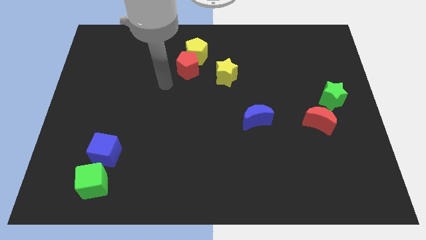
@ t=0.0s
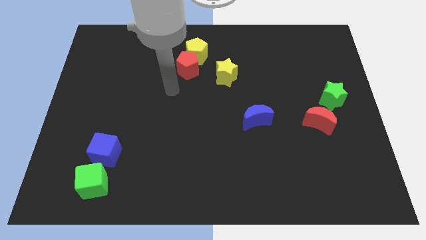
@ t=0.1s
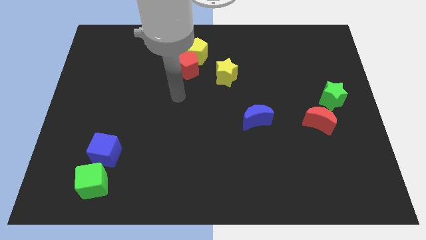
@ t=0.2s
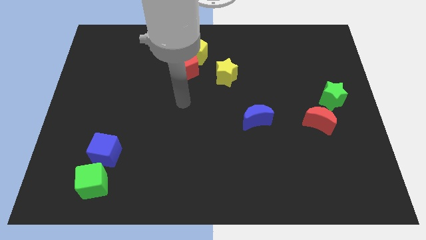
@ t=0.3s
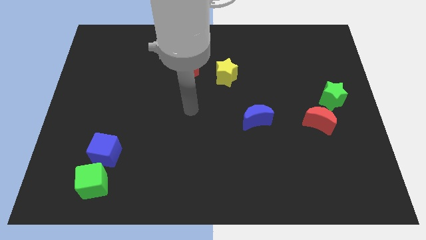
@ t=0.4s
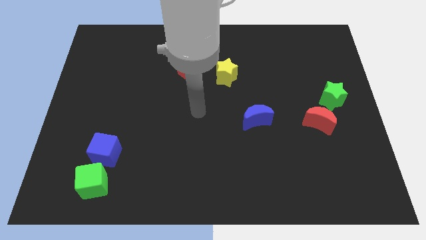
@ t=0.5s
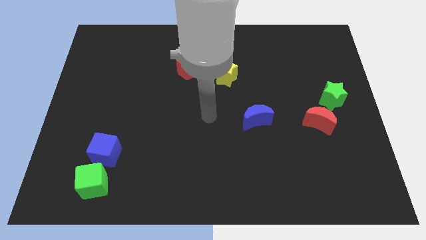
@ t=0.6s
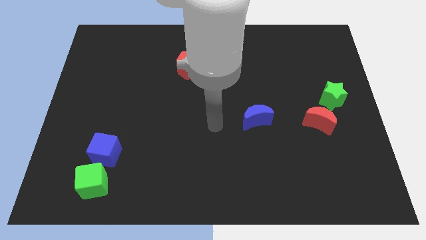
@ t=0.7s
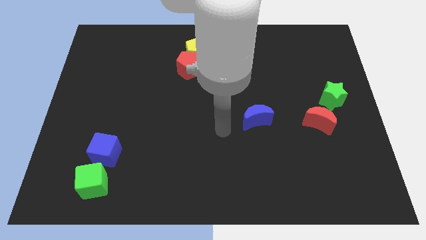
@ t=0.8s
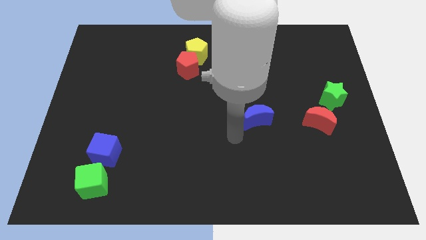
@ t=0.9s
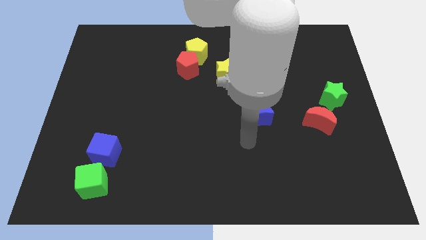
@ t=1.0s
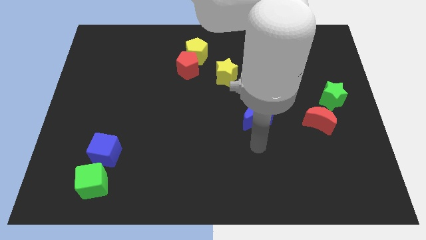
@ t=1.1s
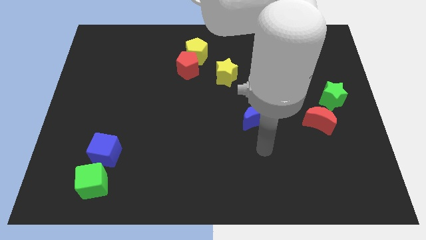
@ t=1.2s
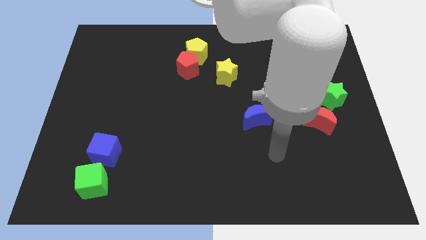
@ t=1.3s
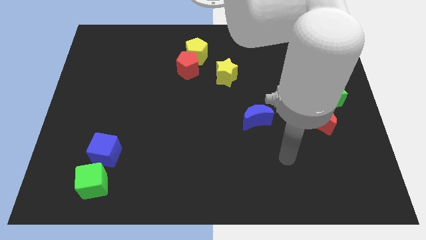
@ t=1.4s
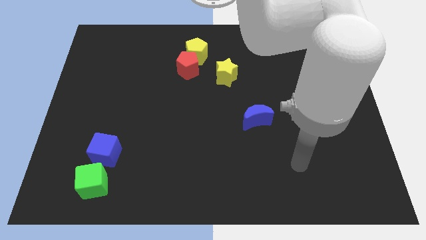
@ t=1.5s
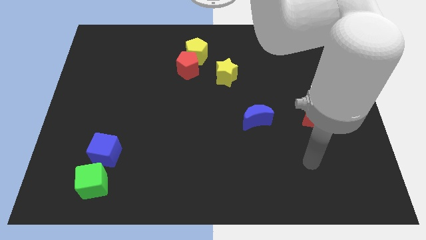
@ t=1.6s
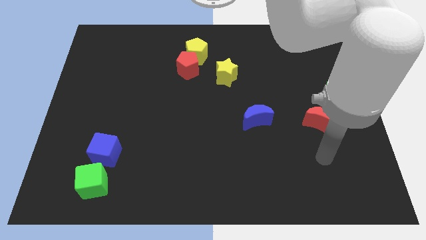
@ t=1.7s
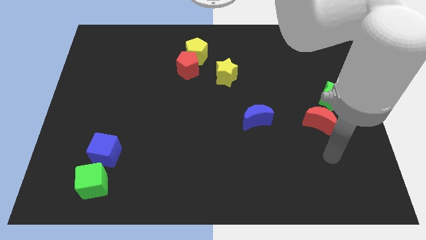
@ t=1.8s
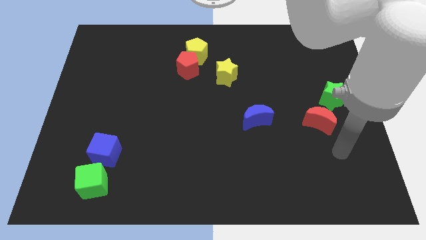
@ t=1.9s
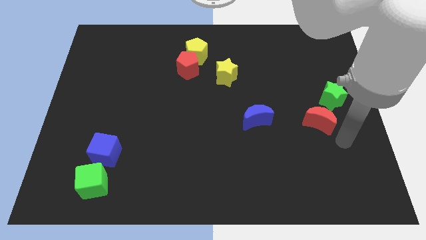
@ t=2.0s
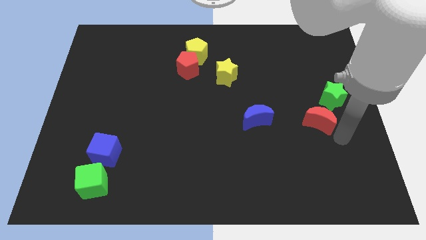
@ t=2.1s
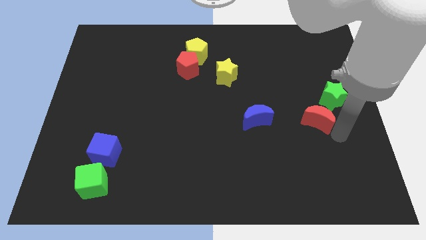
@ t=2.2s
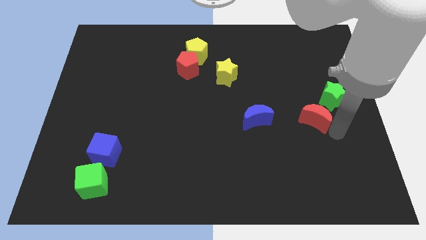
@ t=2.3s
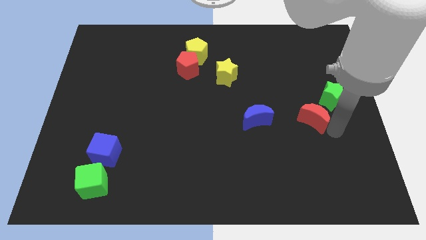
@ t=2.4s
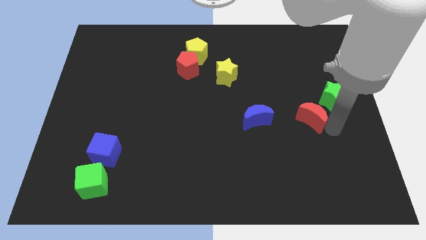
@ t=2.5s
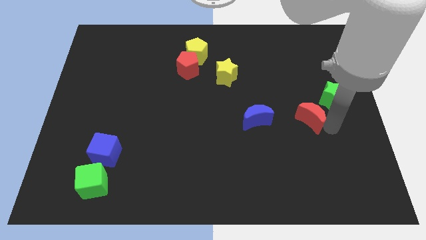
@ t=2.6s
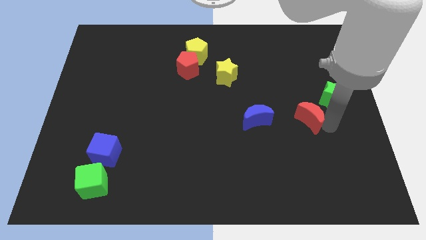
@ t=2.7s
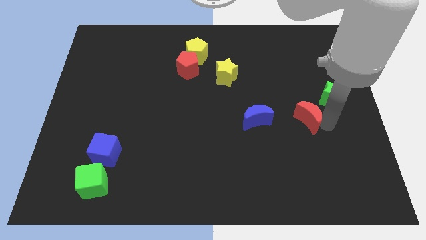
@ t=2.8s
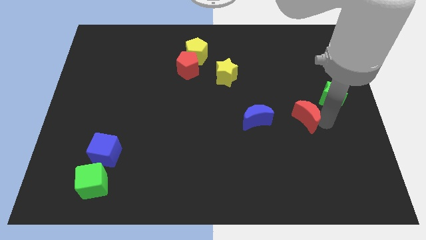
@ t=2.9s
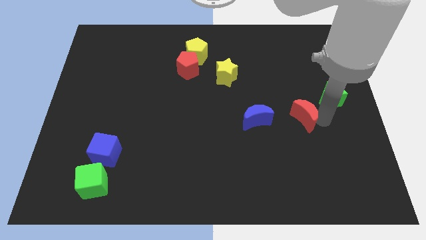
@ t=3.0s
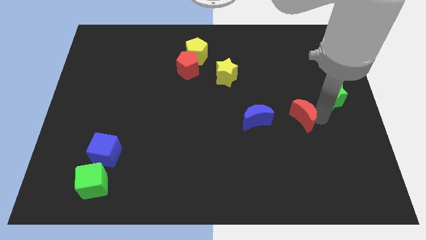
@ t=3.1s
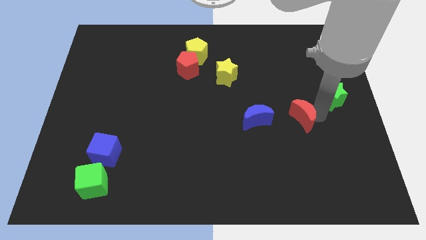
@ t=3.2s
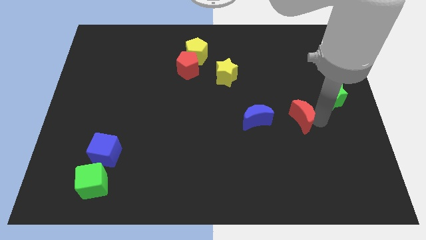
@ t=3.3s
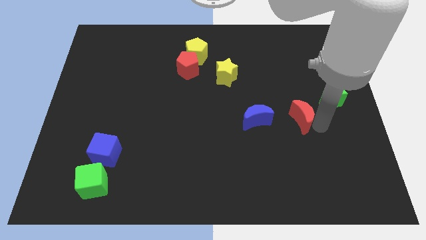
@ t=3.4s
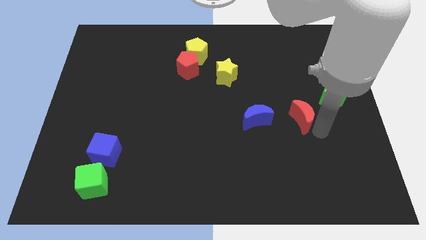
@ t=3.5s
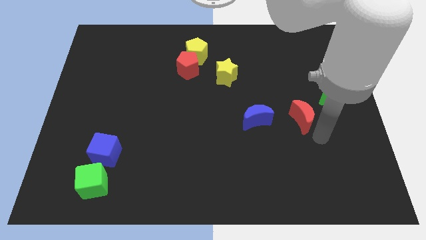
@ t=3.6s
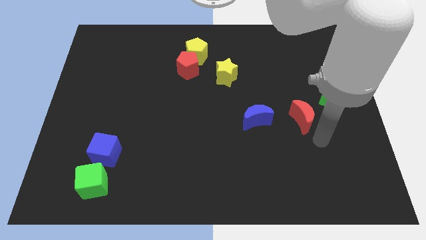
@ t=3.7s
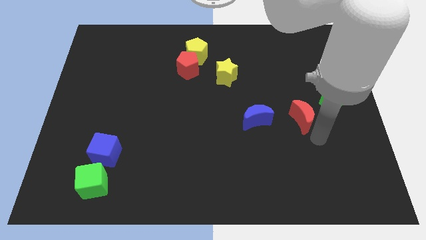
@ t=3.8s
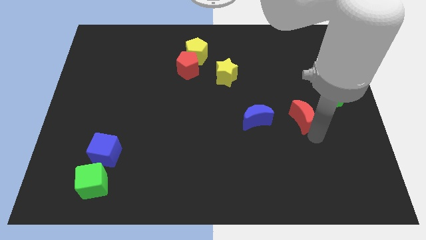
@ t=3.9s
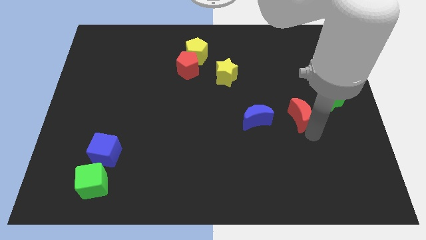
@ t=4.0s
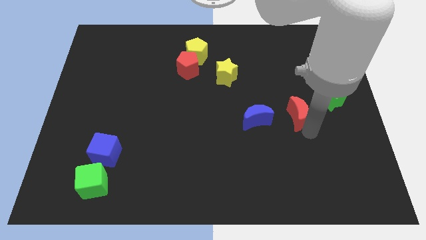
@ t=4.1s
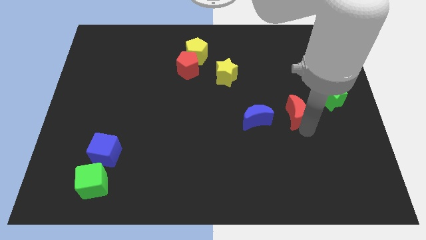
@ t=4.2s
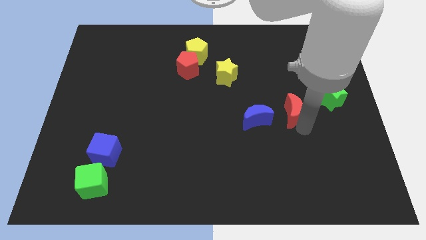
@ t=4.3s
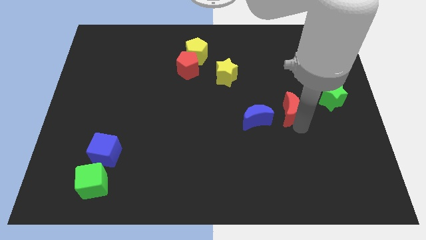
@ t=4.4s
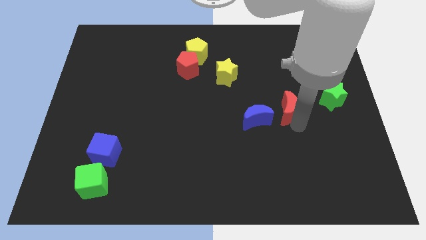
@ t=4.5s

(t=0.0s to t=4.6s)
slightly slide the red moon up and then to the left

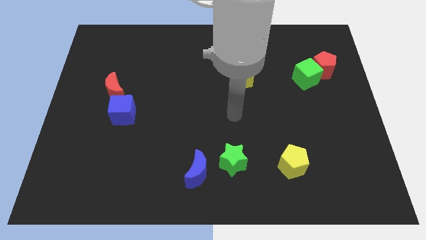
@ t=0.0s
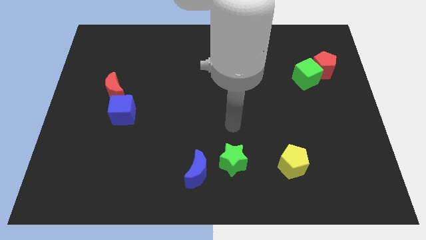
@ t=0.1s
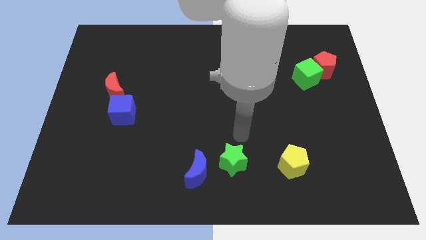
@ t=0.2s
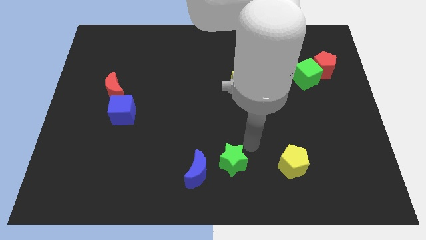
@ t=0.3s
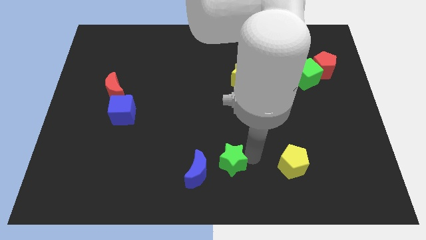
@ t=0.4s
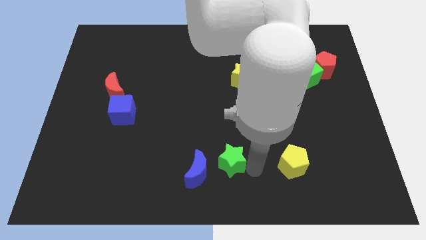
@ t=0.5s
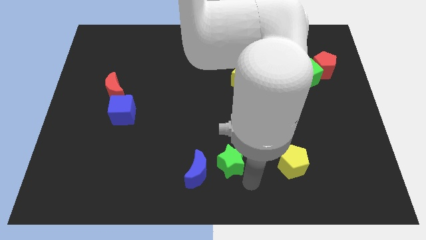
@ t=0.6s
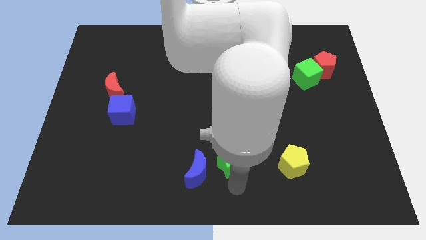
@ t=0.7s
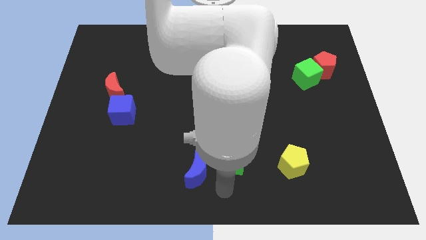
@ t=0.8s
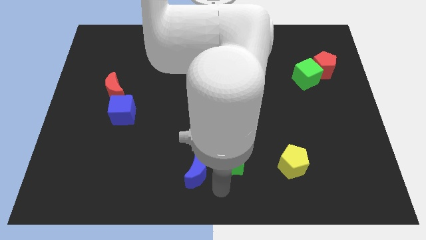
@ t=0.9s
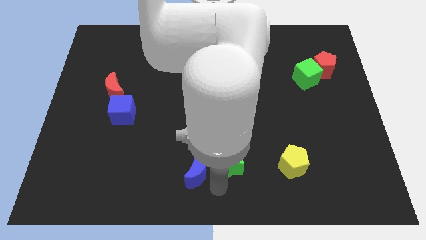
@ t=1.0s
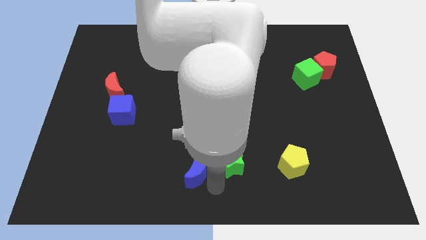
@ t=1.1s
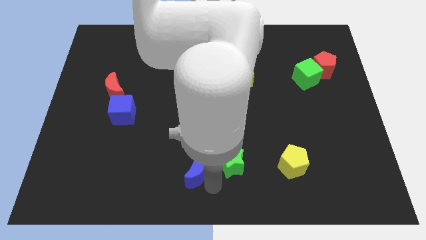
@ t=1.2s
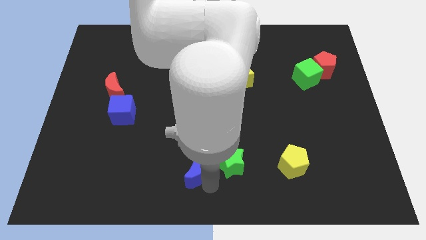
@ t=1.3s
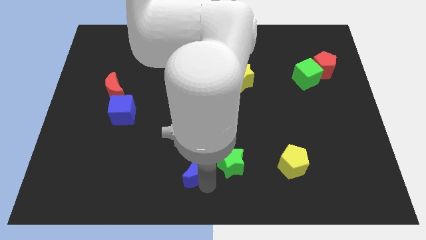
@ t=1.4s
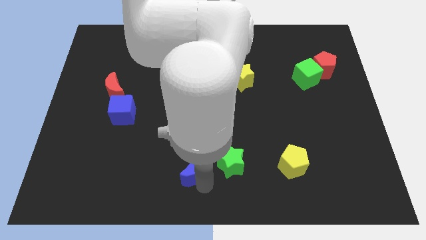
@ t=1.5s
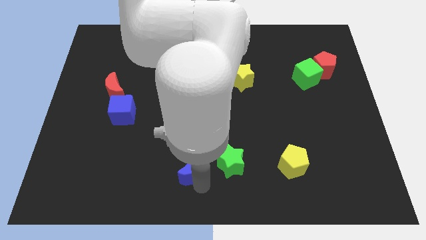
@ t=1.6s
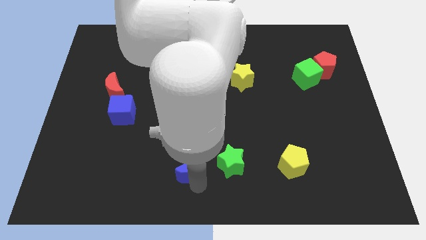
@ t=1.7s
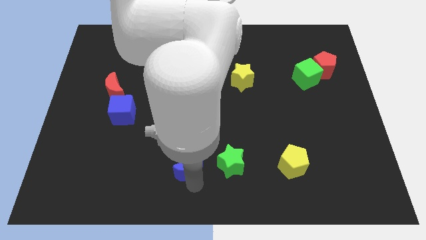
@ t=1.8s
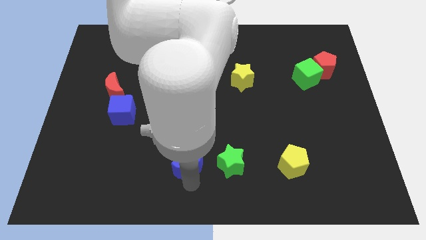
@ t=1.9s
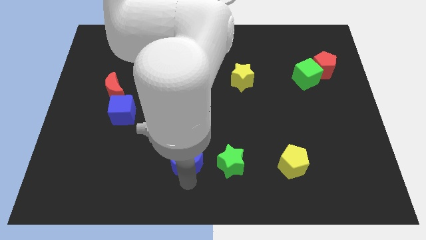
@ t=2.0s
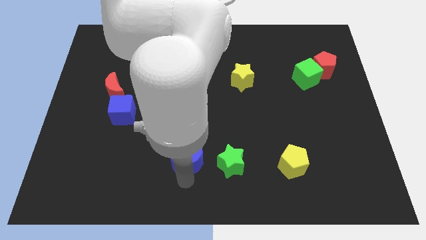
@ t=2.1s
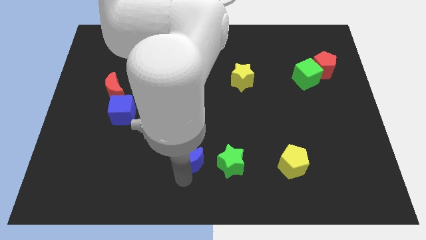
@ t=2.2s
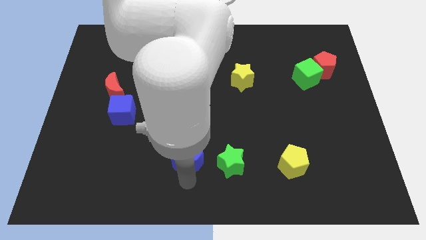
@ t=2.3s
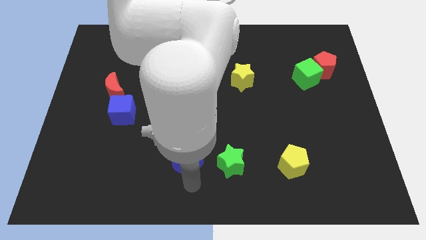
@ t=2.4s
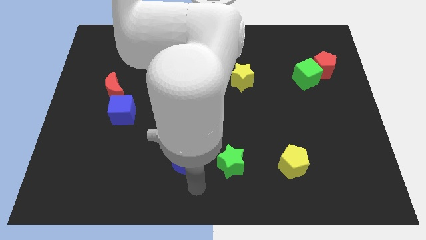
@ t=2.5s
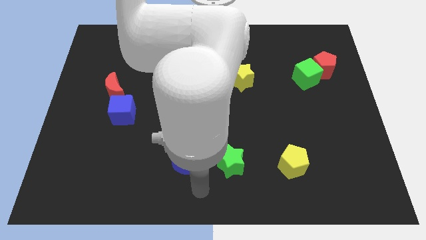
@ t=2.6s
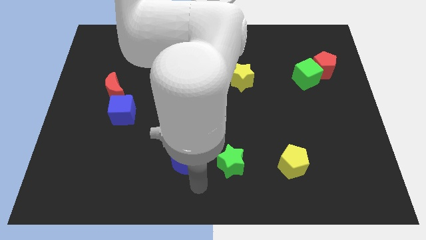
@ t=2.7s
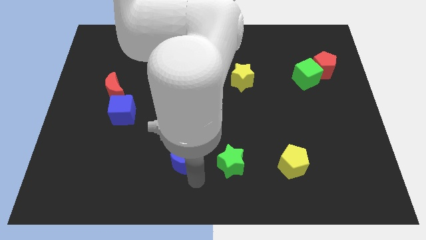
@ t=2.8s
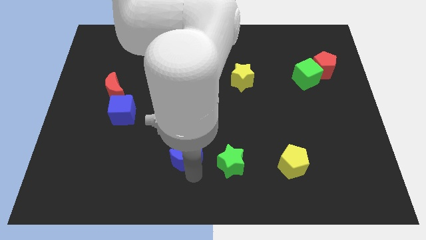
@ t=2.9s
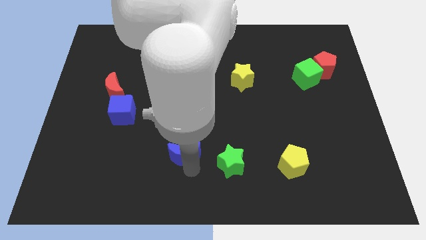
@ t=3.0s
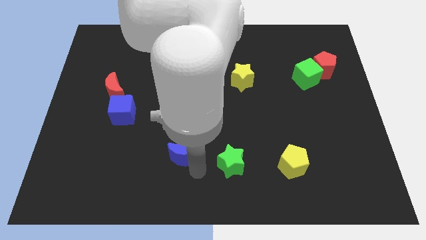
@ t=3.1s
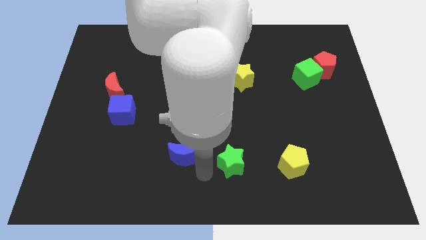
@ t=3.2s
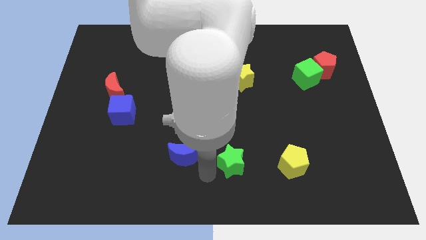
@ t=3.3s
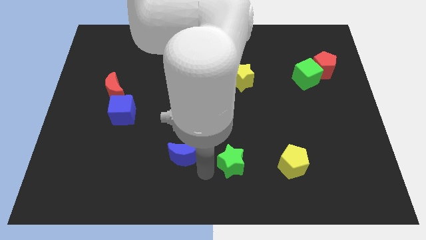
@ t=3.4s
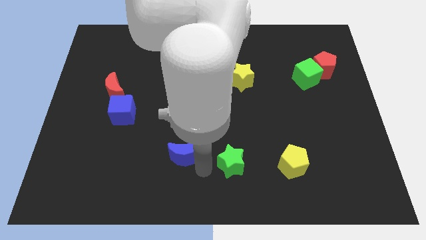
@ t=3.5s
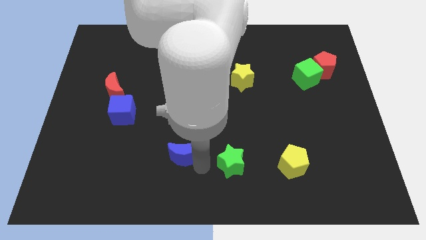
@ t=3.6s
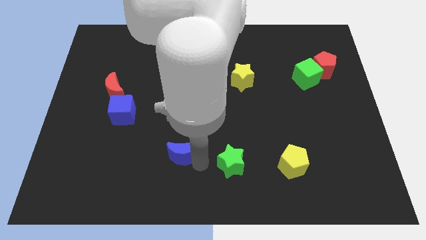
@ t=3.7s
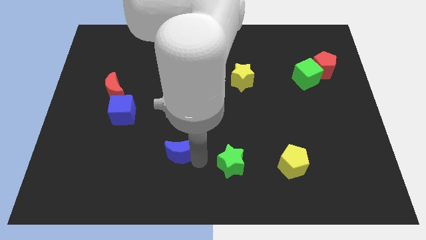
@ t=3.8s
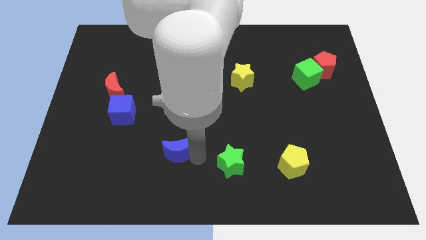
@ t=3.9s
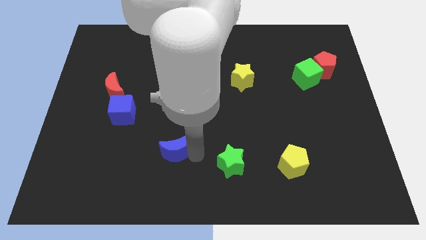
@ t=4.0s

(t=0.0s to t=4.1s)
slide the blue moon diagonally up and left a little
